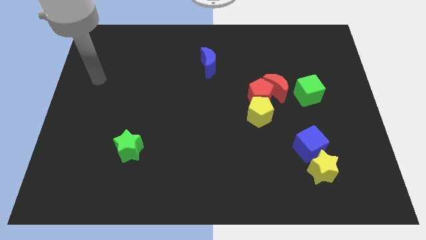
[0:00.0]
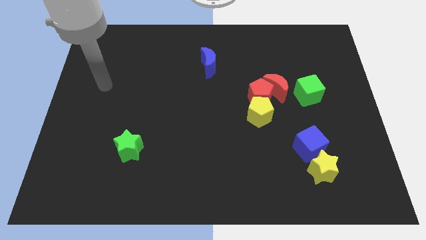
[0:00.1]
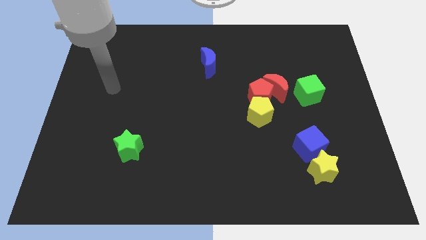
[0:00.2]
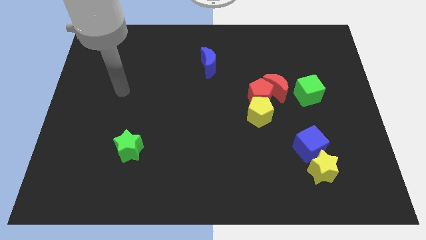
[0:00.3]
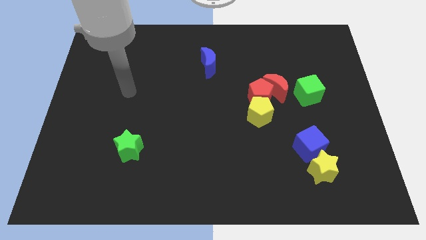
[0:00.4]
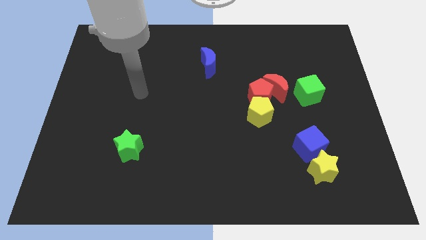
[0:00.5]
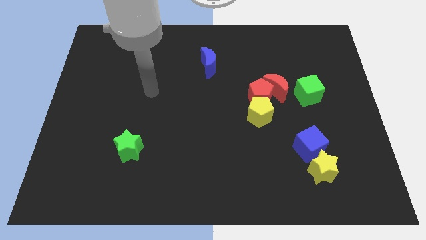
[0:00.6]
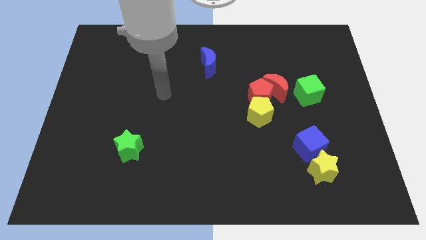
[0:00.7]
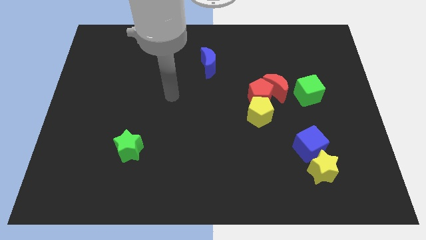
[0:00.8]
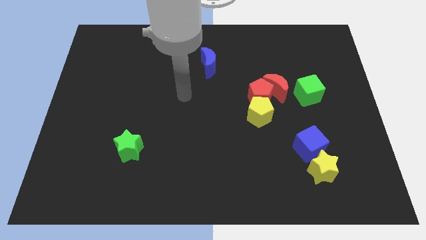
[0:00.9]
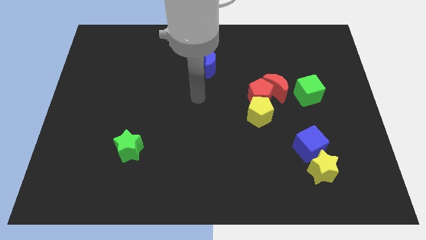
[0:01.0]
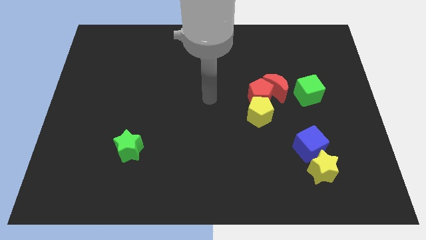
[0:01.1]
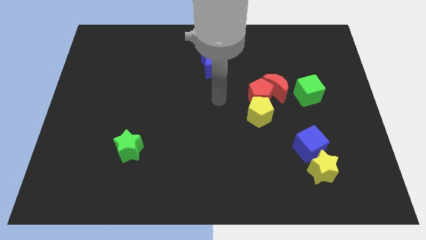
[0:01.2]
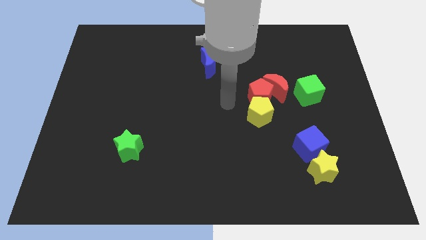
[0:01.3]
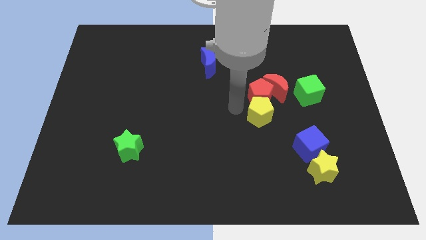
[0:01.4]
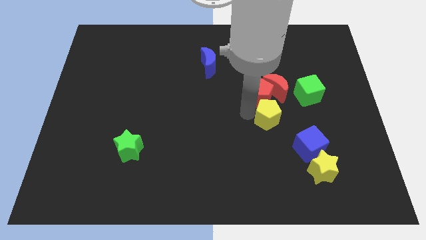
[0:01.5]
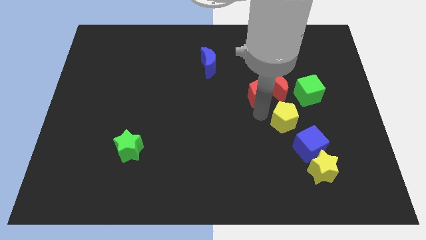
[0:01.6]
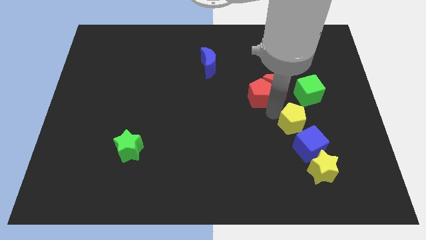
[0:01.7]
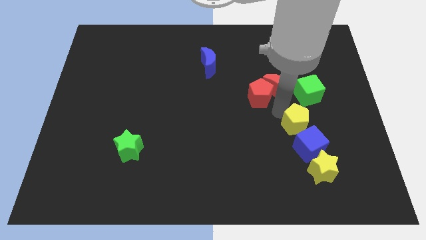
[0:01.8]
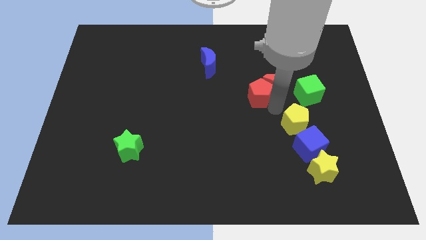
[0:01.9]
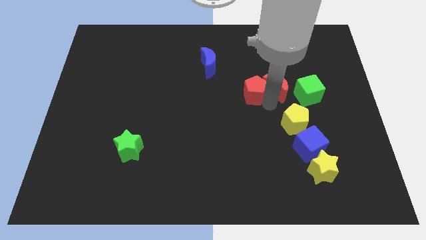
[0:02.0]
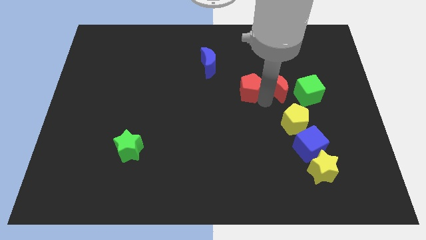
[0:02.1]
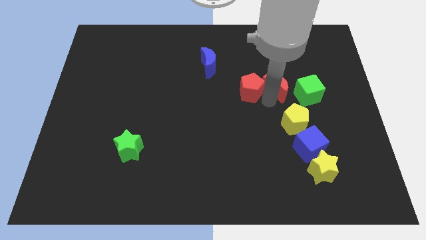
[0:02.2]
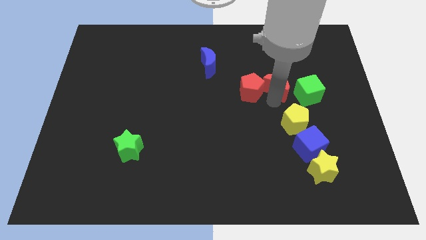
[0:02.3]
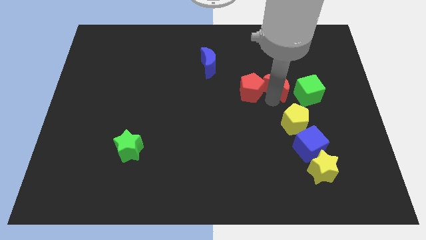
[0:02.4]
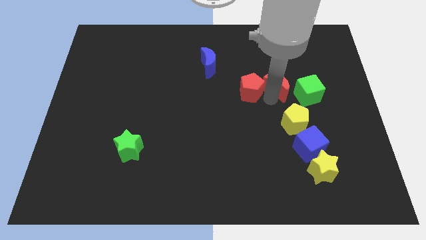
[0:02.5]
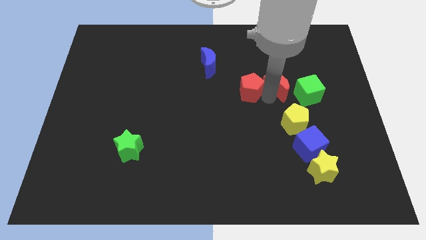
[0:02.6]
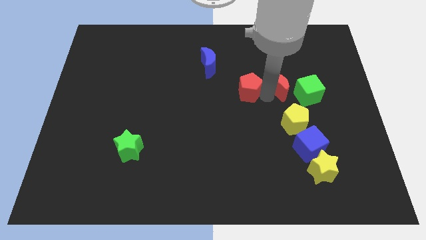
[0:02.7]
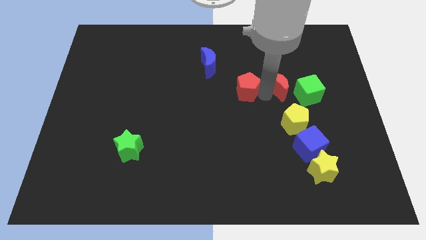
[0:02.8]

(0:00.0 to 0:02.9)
pull the red pentagon apart from the red moon and yellow pentagon

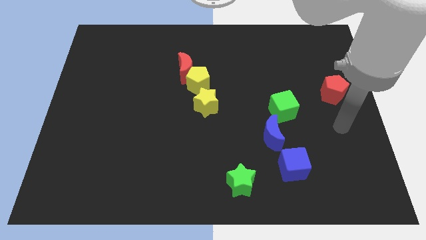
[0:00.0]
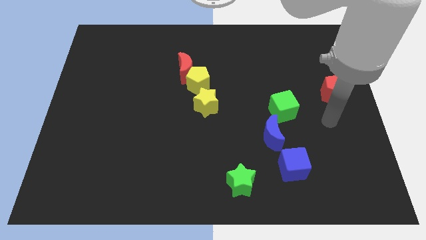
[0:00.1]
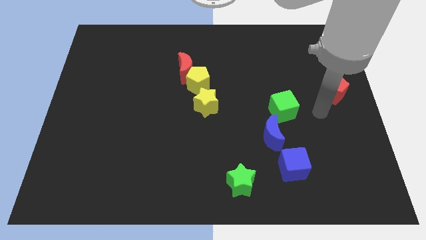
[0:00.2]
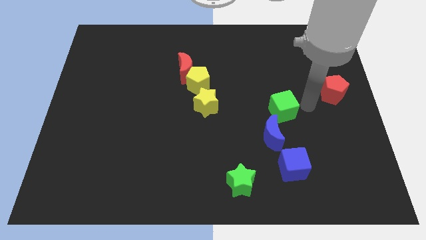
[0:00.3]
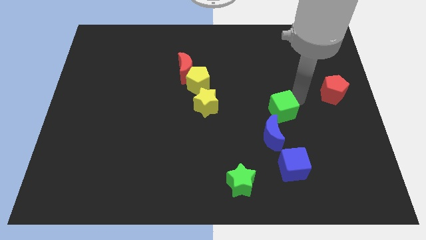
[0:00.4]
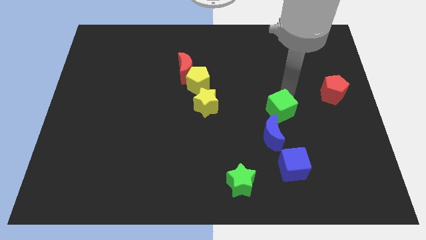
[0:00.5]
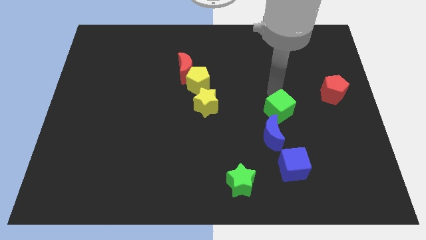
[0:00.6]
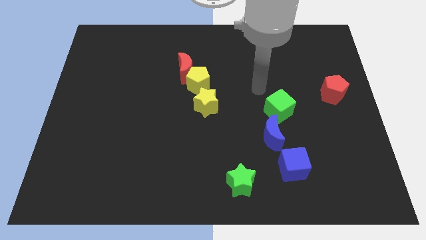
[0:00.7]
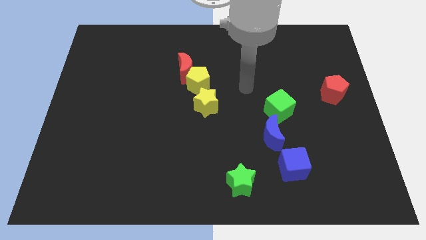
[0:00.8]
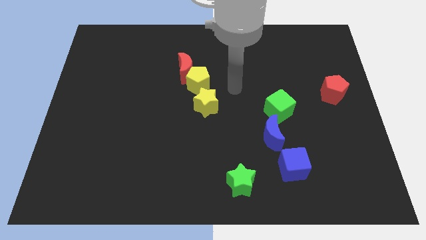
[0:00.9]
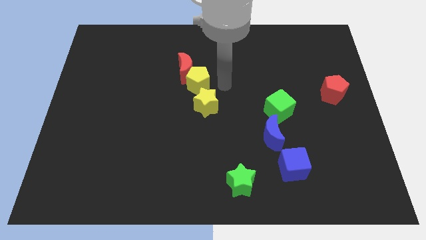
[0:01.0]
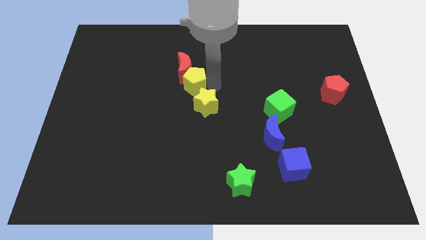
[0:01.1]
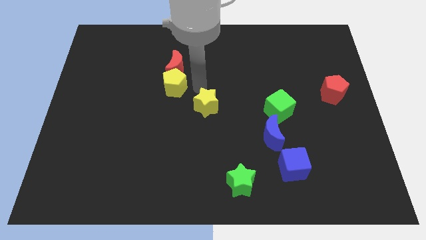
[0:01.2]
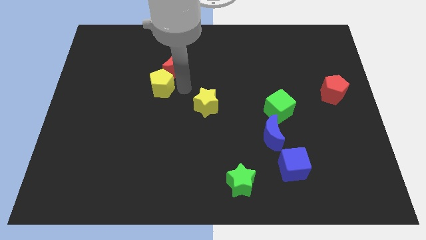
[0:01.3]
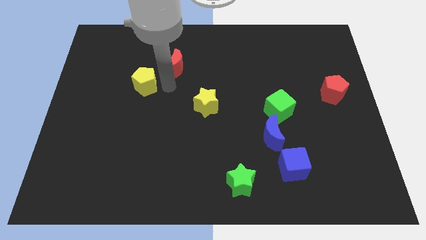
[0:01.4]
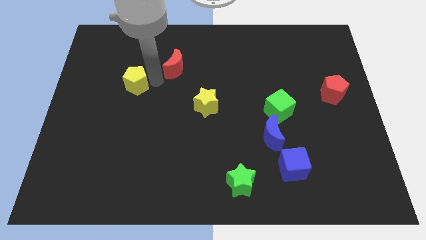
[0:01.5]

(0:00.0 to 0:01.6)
separate the red moon from the yellow pentagon

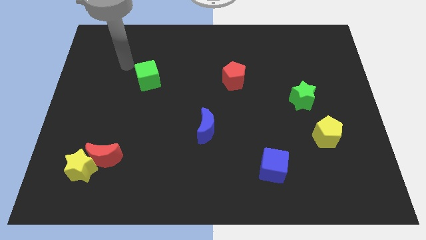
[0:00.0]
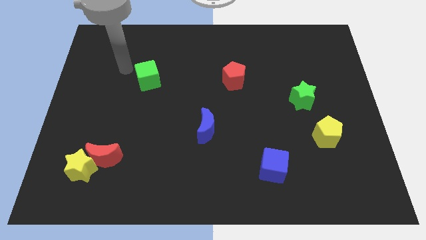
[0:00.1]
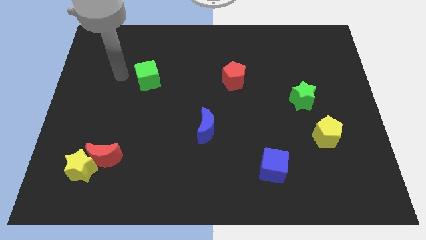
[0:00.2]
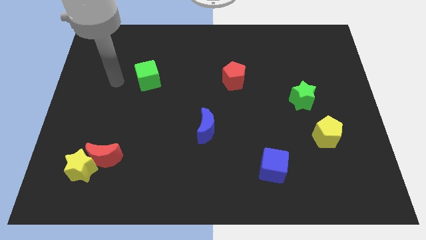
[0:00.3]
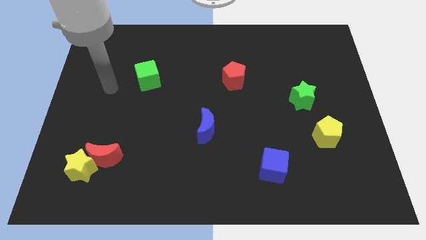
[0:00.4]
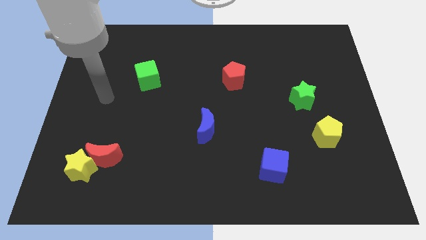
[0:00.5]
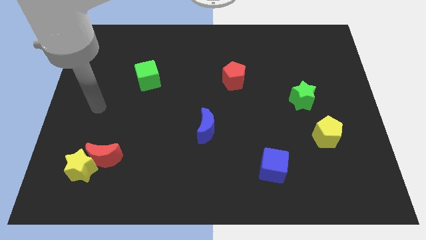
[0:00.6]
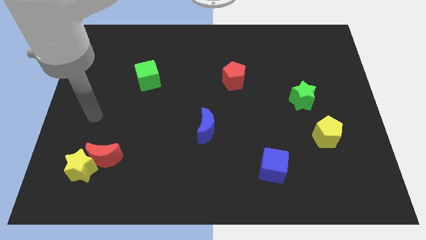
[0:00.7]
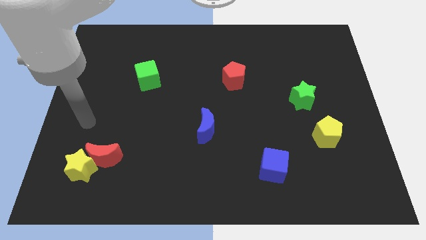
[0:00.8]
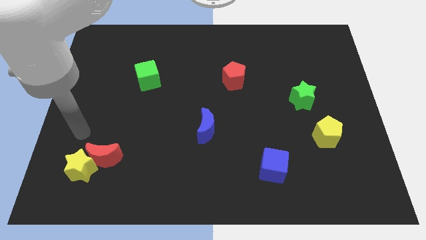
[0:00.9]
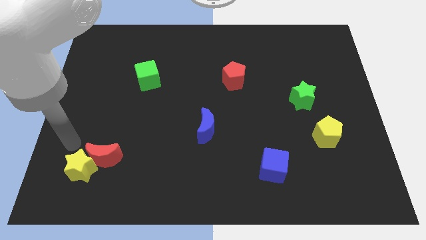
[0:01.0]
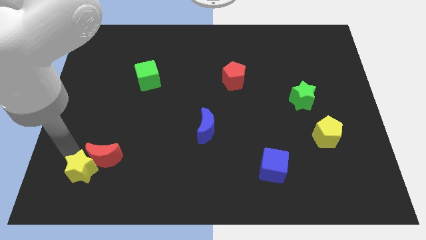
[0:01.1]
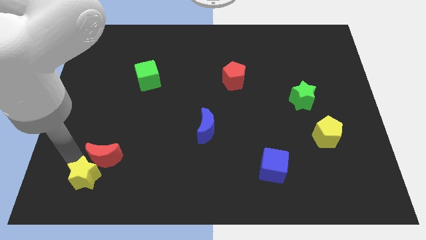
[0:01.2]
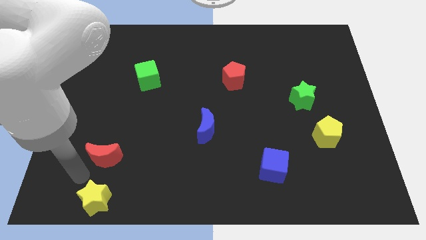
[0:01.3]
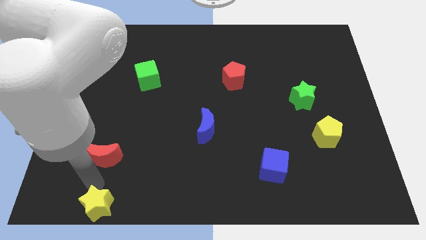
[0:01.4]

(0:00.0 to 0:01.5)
pull the red moon apart from the yellow star

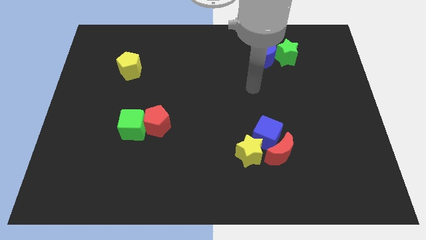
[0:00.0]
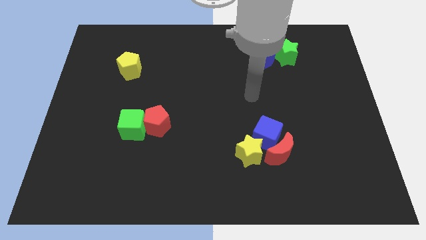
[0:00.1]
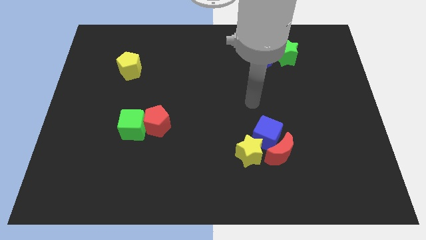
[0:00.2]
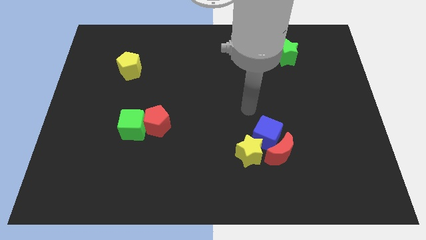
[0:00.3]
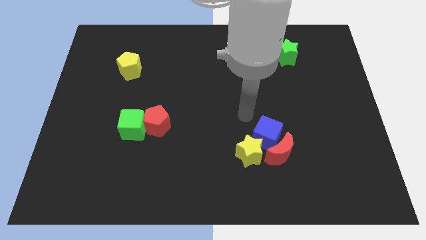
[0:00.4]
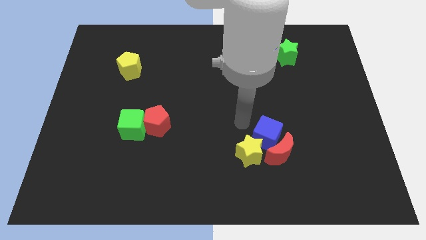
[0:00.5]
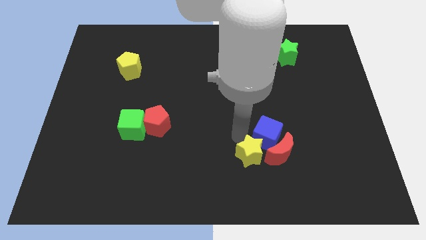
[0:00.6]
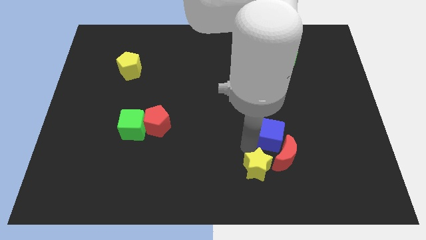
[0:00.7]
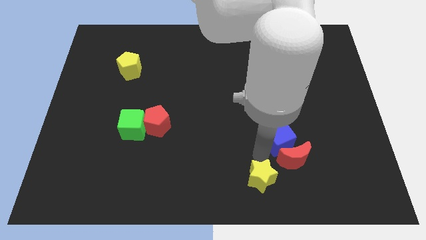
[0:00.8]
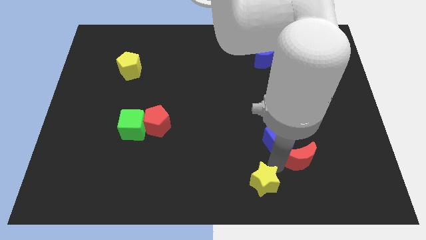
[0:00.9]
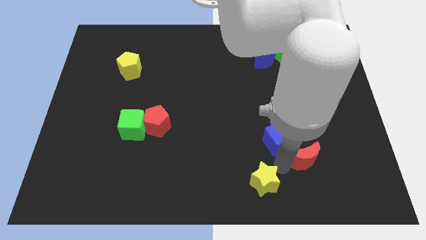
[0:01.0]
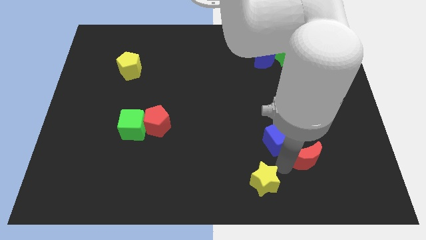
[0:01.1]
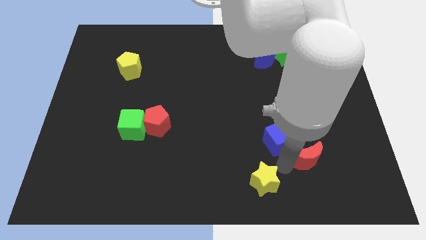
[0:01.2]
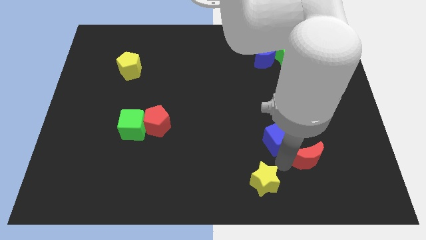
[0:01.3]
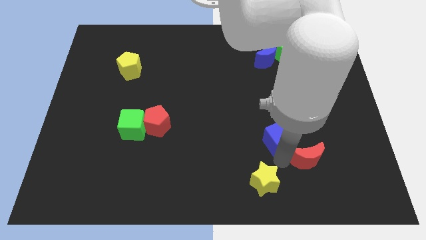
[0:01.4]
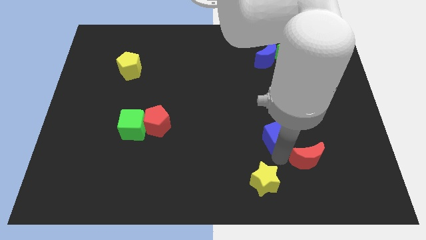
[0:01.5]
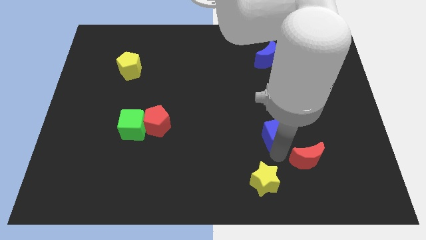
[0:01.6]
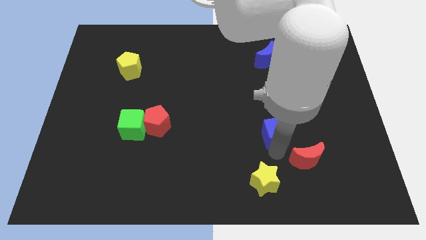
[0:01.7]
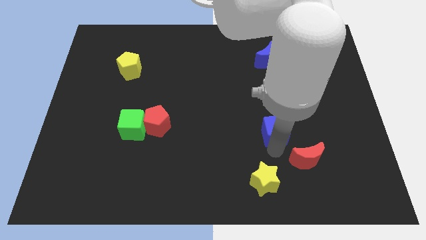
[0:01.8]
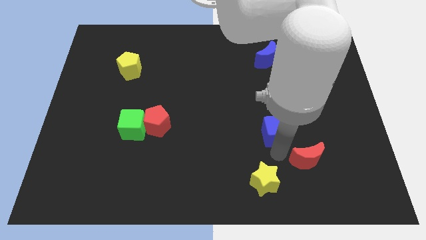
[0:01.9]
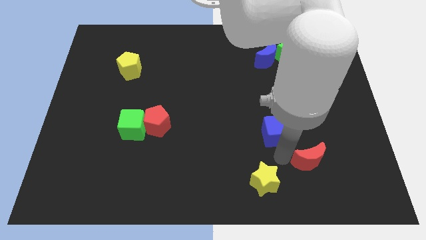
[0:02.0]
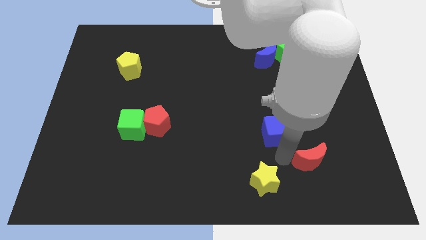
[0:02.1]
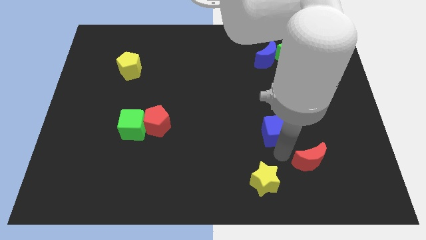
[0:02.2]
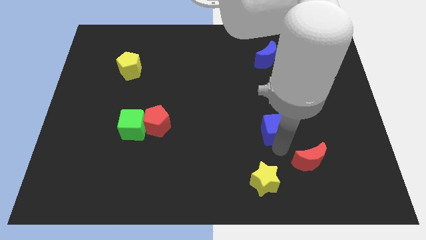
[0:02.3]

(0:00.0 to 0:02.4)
move the blue cube away from the red moon and yellow star

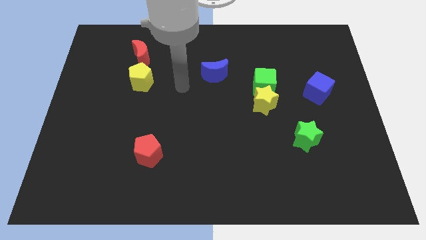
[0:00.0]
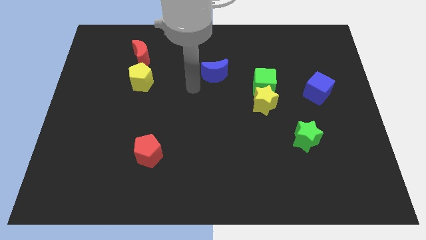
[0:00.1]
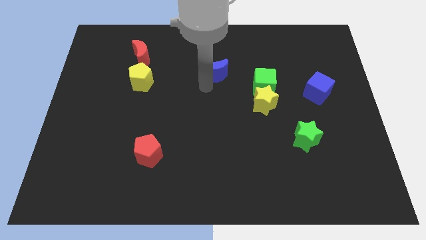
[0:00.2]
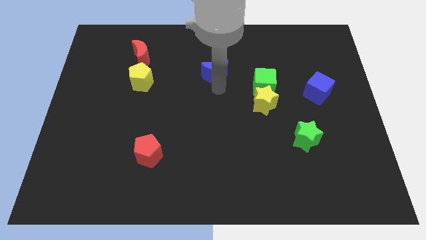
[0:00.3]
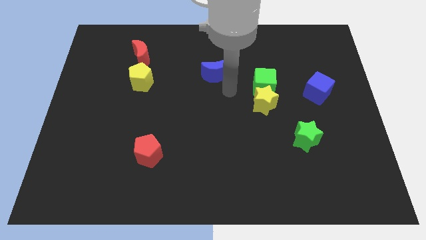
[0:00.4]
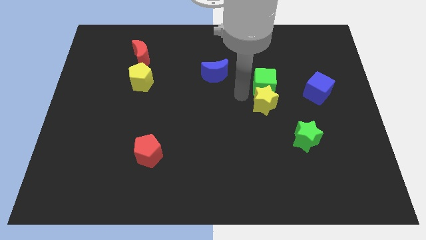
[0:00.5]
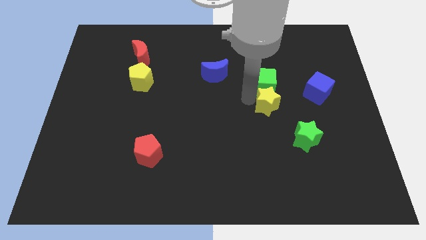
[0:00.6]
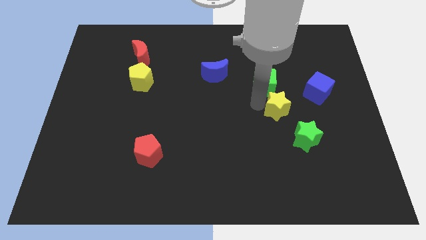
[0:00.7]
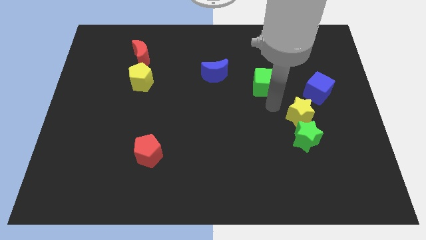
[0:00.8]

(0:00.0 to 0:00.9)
move the green cube away from the yellow star
